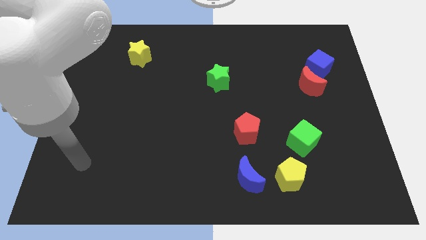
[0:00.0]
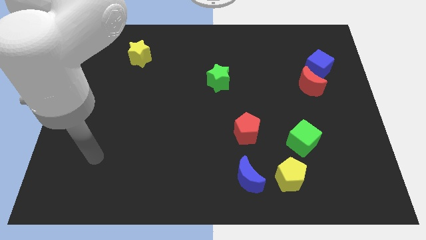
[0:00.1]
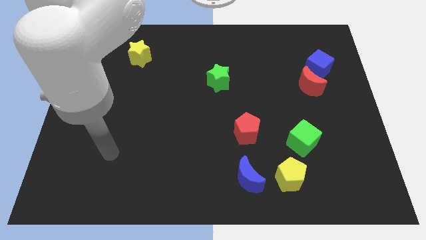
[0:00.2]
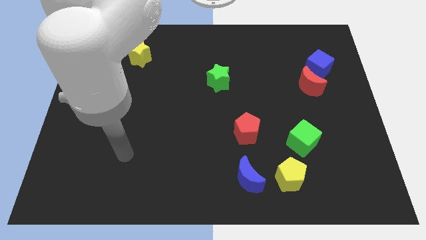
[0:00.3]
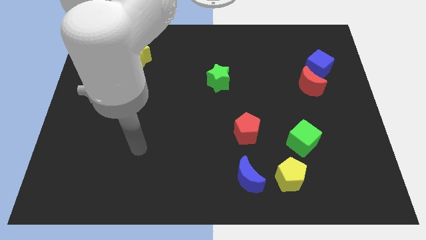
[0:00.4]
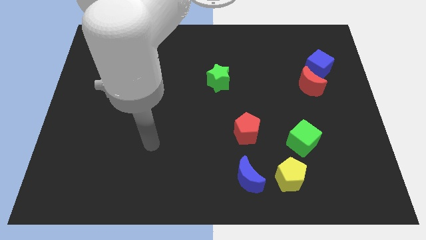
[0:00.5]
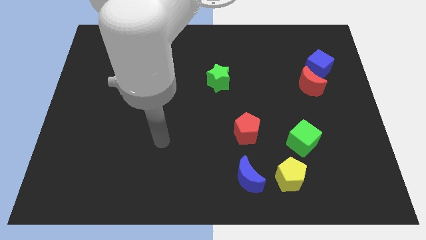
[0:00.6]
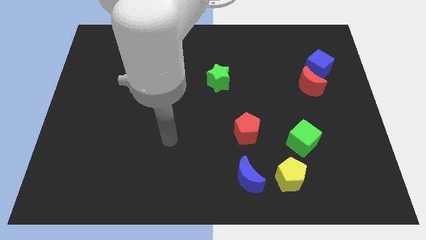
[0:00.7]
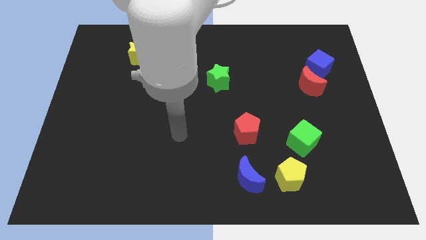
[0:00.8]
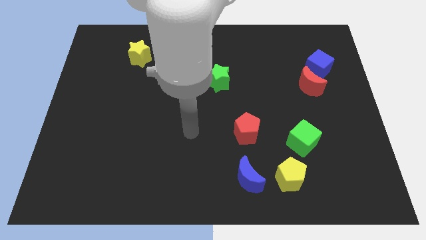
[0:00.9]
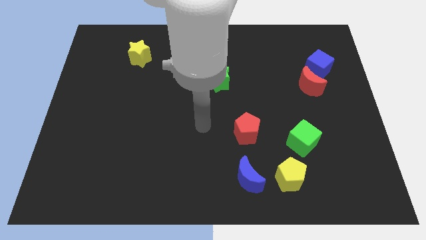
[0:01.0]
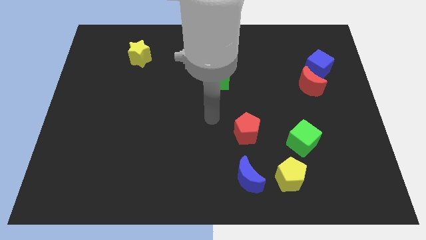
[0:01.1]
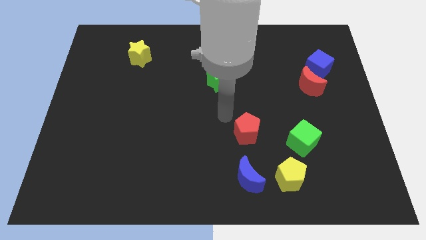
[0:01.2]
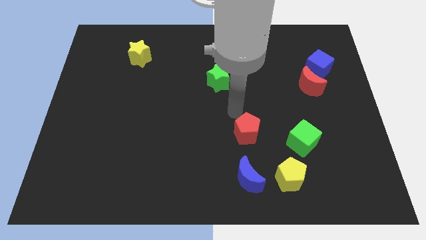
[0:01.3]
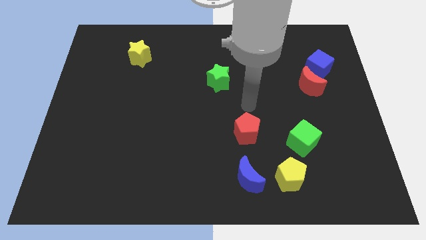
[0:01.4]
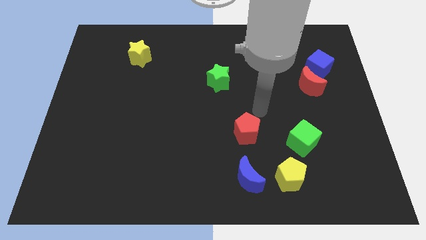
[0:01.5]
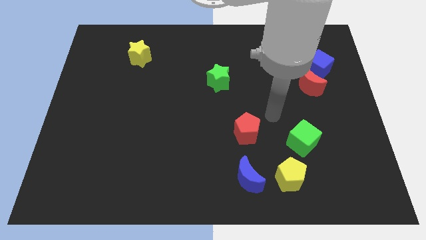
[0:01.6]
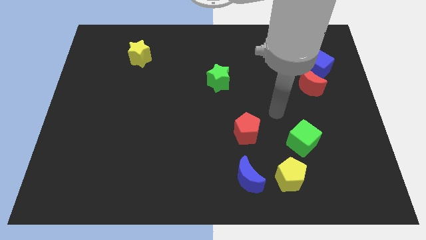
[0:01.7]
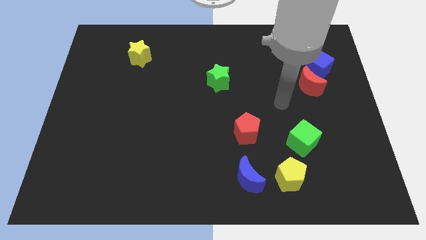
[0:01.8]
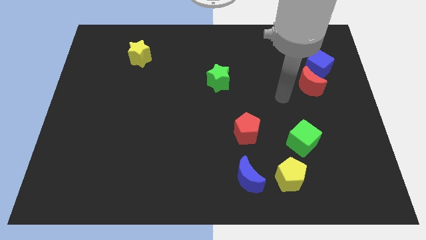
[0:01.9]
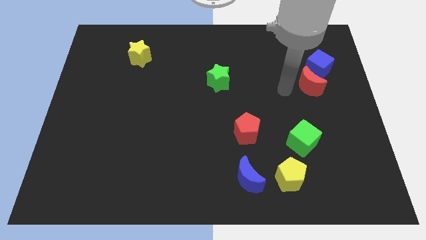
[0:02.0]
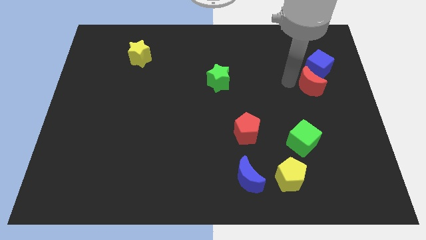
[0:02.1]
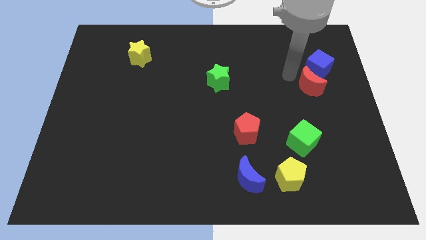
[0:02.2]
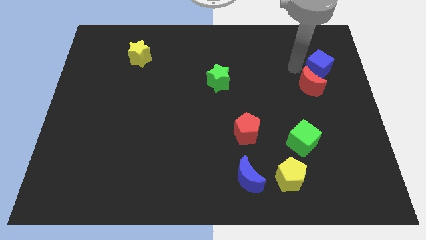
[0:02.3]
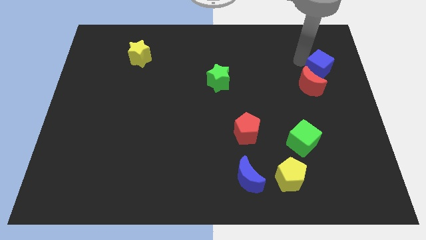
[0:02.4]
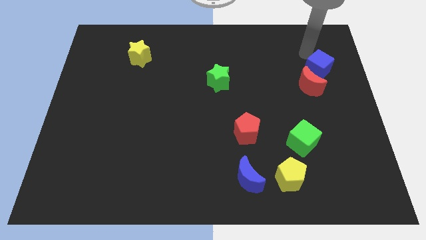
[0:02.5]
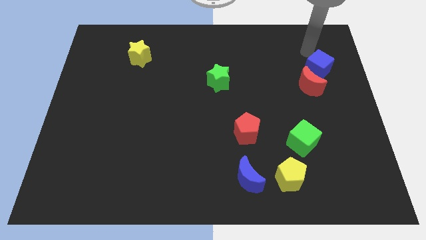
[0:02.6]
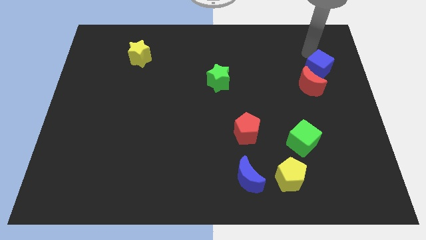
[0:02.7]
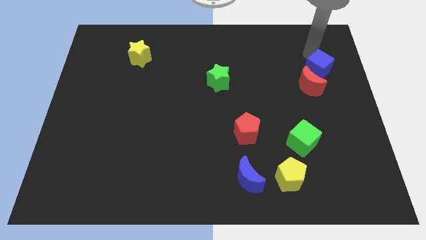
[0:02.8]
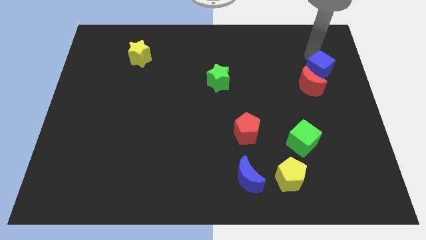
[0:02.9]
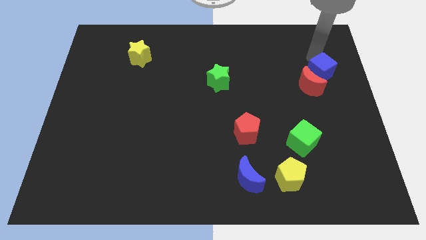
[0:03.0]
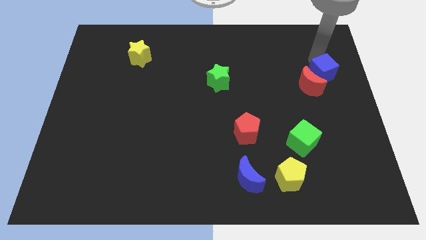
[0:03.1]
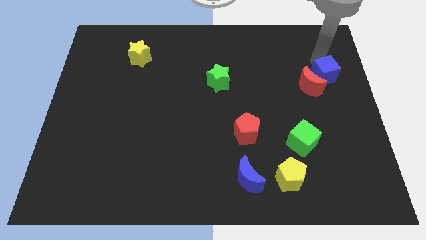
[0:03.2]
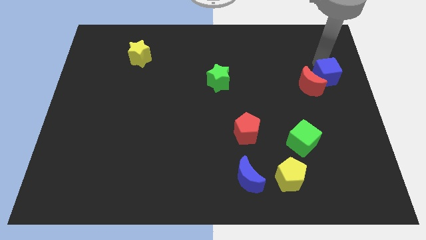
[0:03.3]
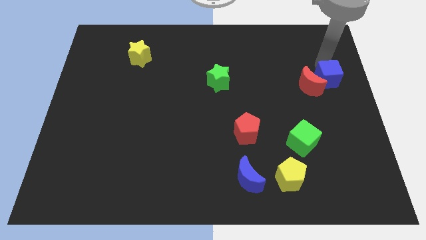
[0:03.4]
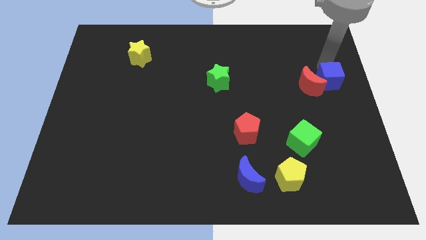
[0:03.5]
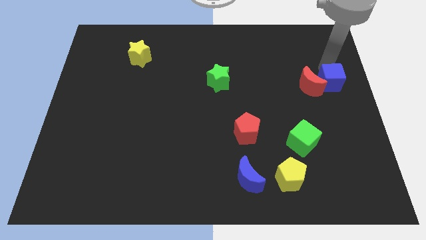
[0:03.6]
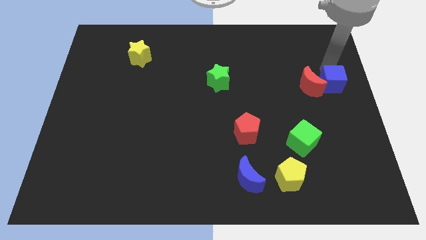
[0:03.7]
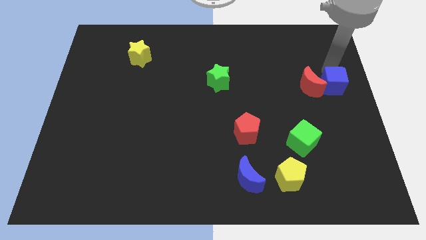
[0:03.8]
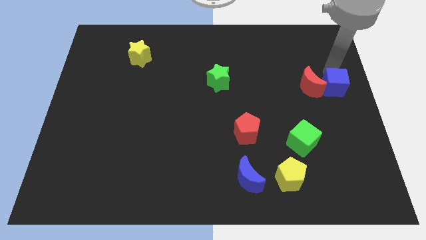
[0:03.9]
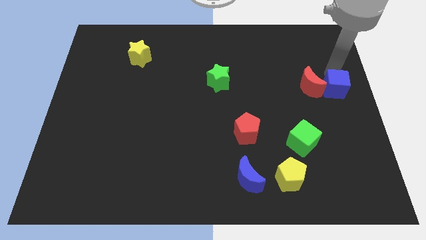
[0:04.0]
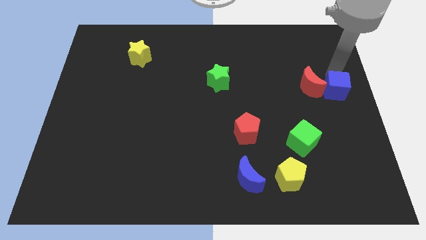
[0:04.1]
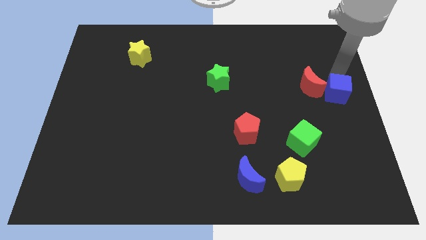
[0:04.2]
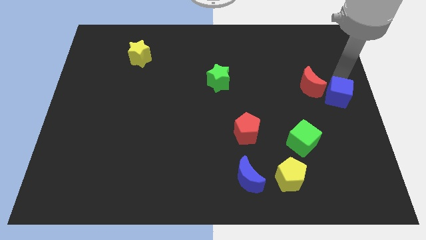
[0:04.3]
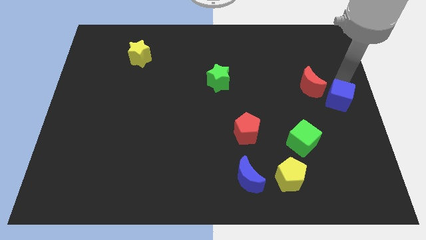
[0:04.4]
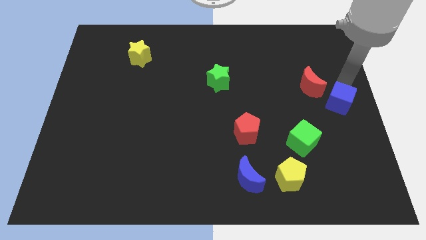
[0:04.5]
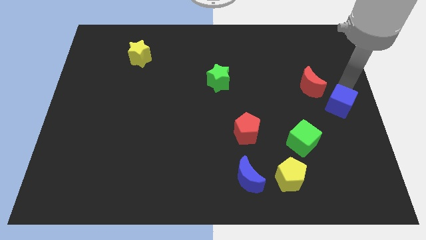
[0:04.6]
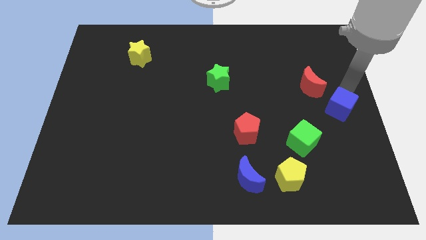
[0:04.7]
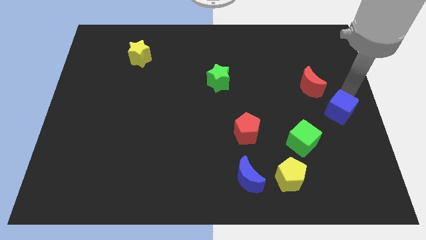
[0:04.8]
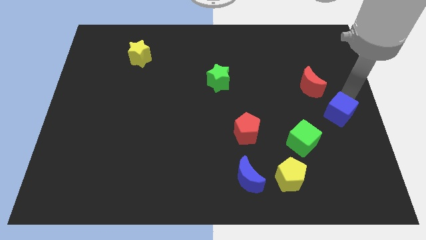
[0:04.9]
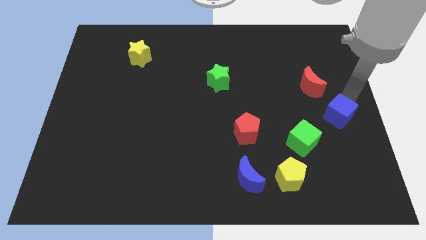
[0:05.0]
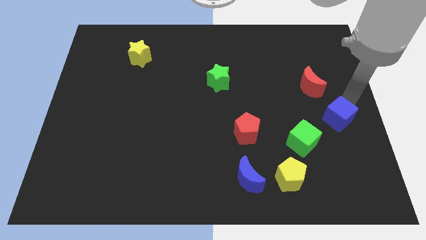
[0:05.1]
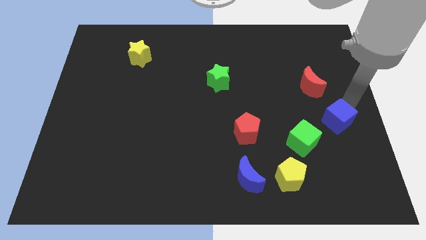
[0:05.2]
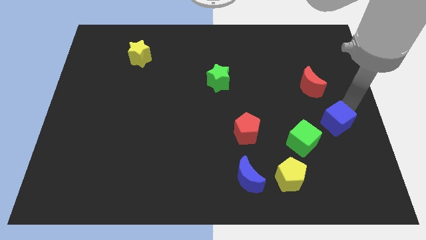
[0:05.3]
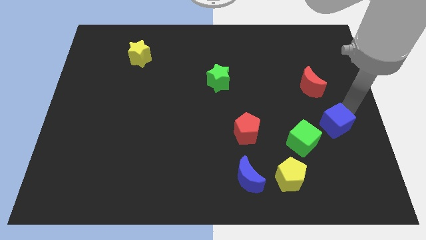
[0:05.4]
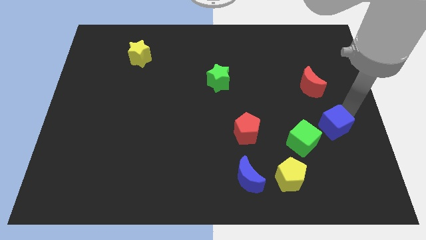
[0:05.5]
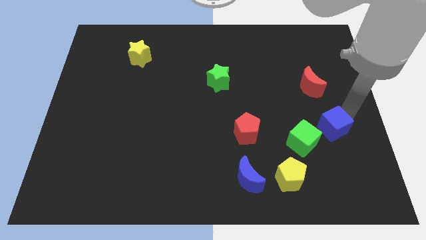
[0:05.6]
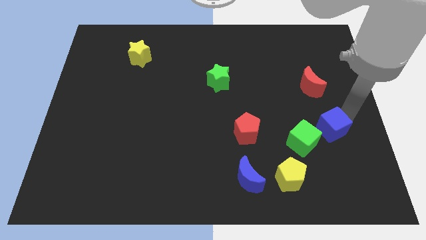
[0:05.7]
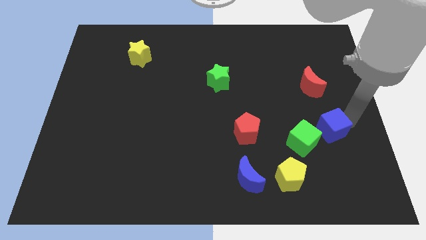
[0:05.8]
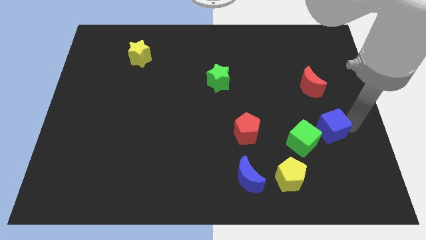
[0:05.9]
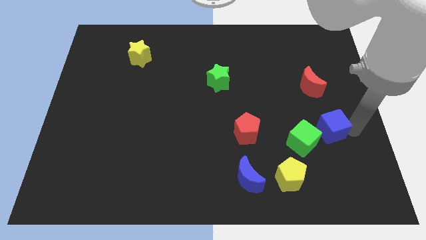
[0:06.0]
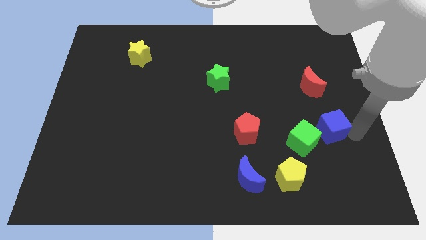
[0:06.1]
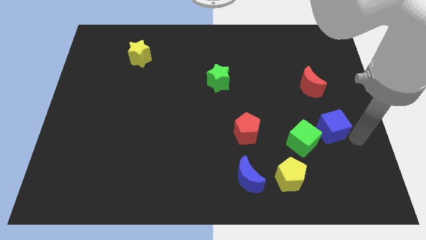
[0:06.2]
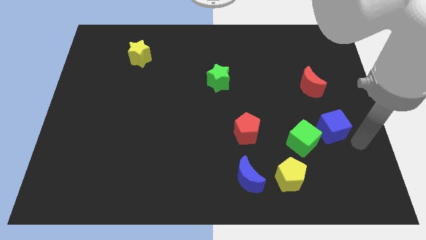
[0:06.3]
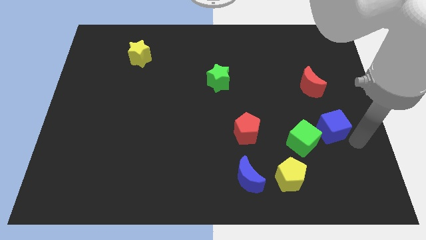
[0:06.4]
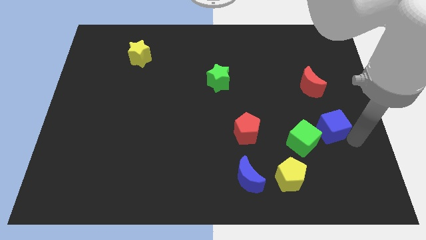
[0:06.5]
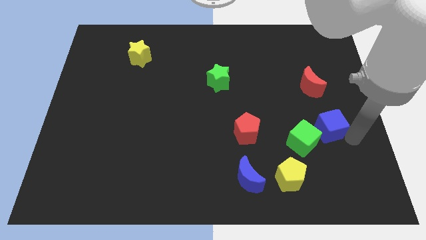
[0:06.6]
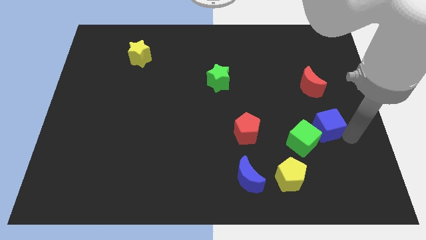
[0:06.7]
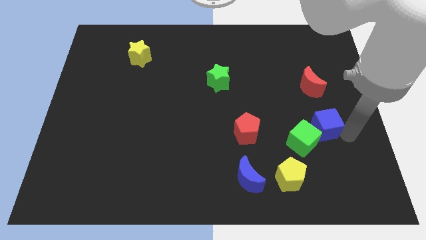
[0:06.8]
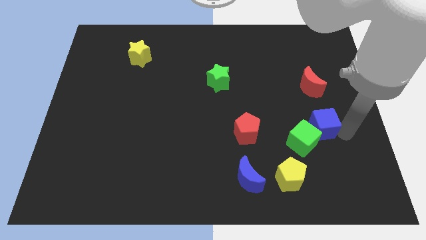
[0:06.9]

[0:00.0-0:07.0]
put the blue cube towards the green cube
